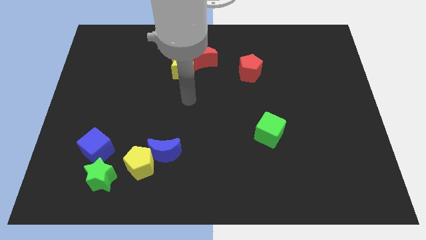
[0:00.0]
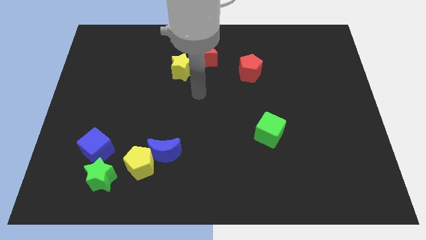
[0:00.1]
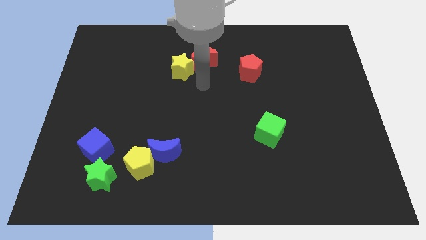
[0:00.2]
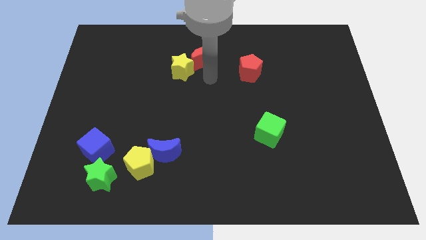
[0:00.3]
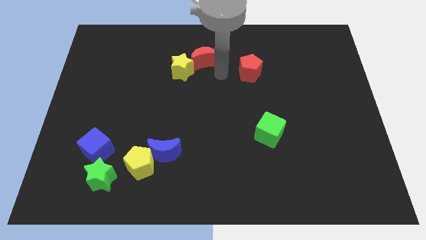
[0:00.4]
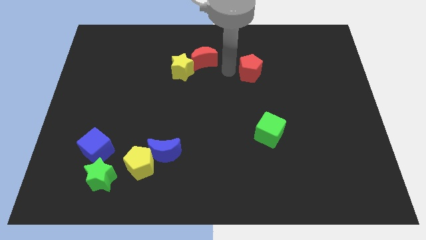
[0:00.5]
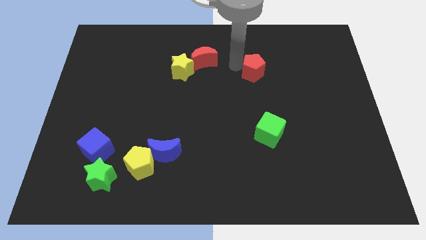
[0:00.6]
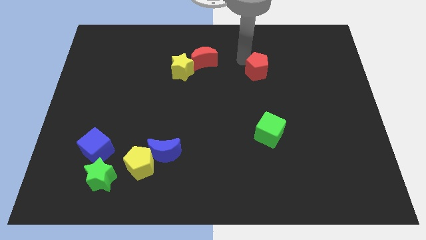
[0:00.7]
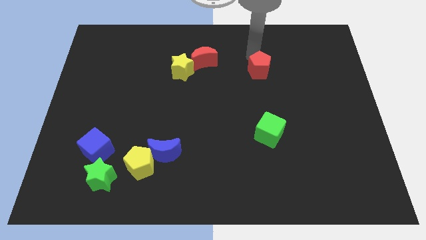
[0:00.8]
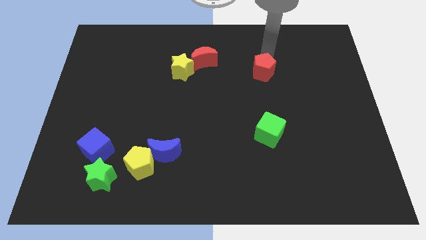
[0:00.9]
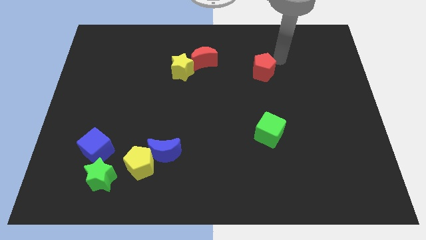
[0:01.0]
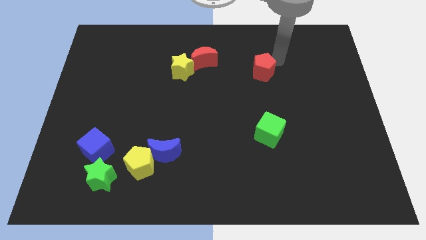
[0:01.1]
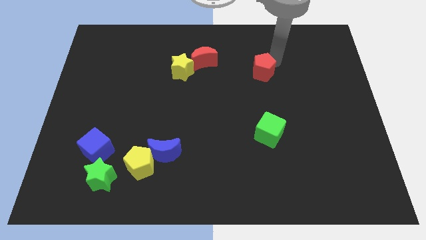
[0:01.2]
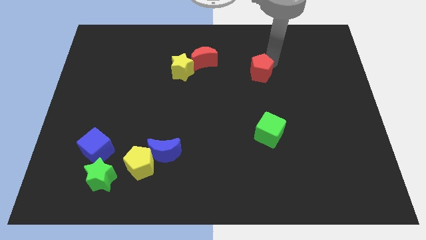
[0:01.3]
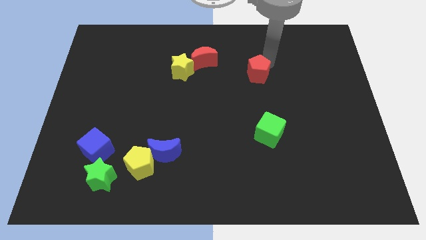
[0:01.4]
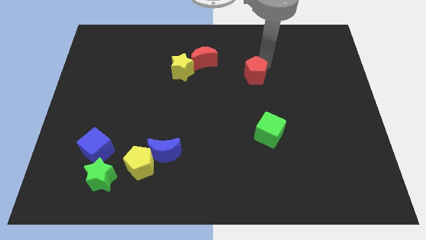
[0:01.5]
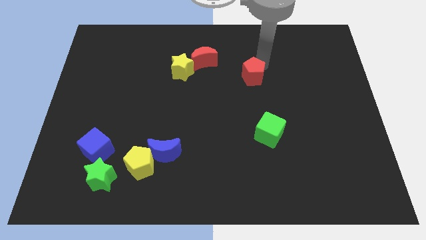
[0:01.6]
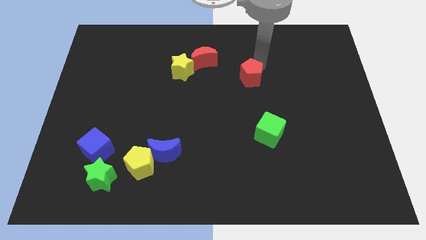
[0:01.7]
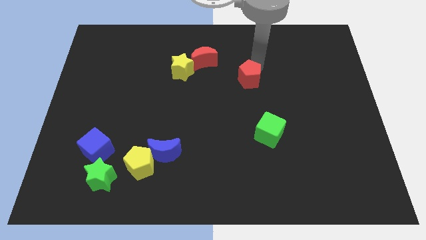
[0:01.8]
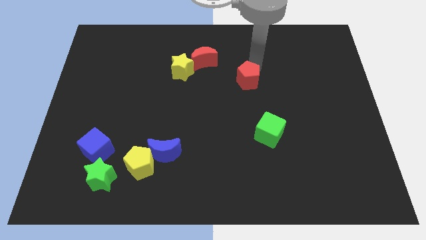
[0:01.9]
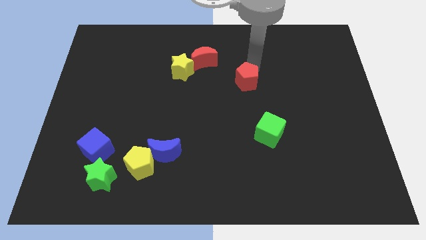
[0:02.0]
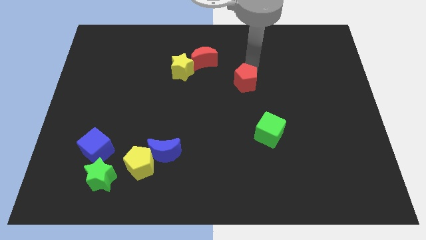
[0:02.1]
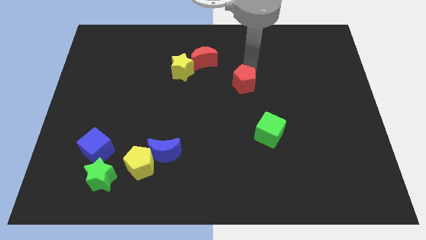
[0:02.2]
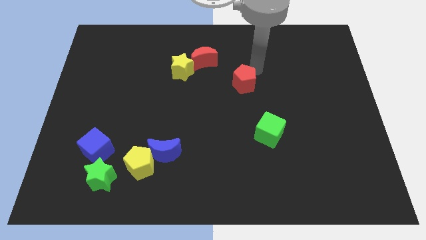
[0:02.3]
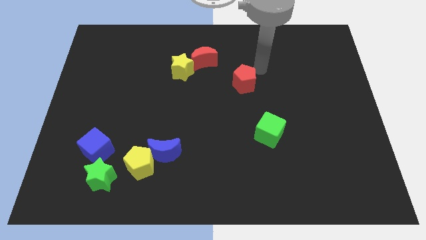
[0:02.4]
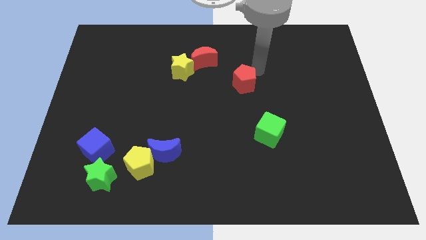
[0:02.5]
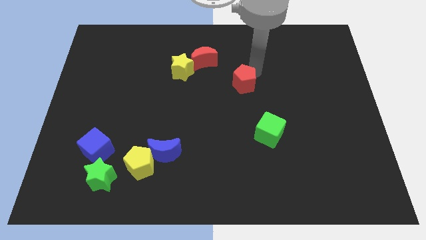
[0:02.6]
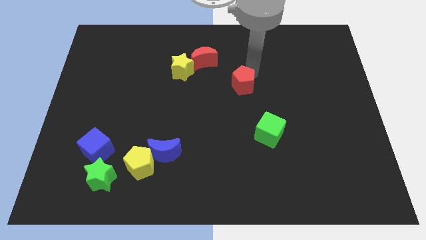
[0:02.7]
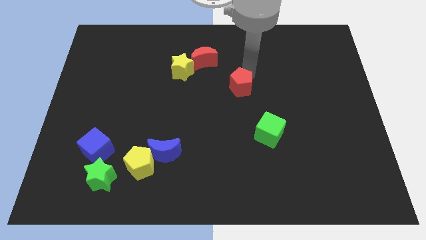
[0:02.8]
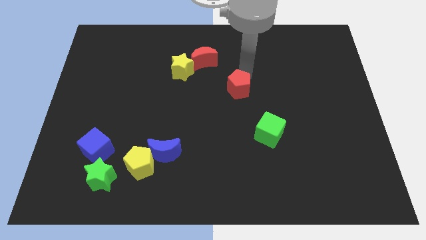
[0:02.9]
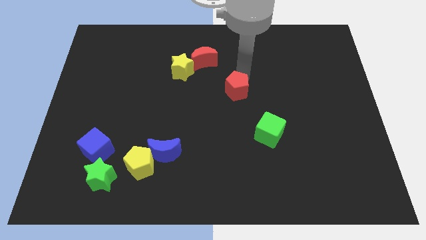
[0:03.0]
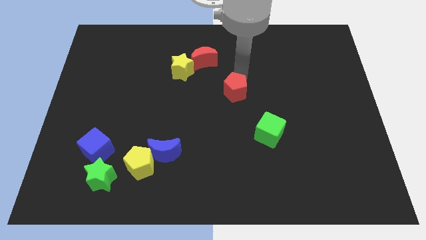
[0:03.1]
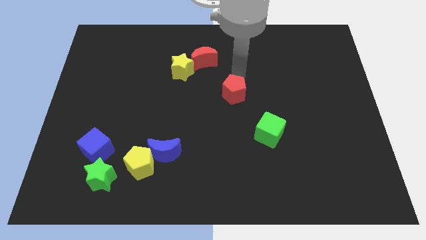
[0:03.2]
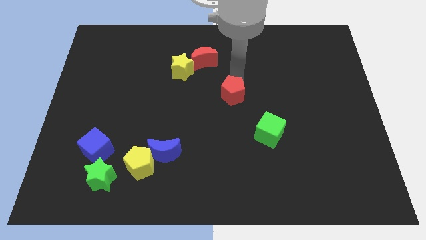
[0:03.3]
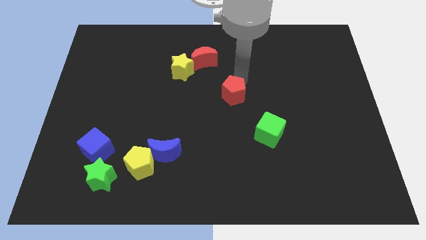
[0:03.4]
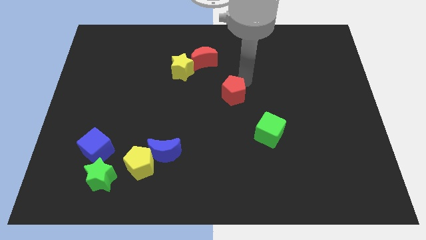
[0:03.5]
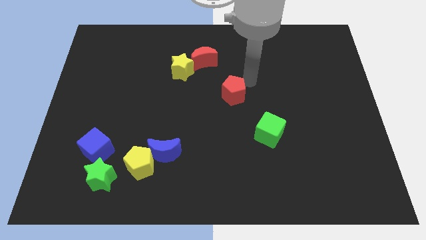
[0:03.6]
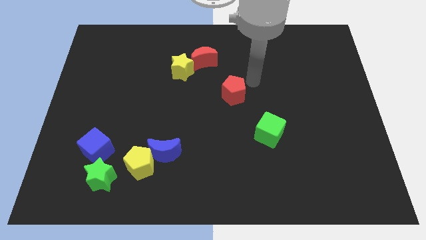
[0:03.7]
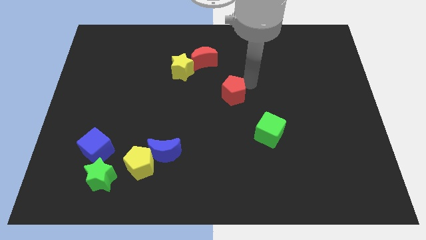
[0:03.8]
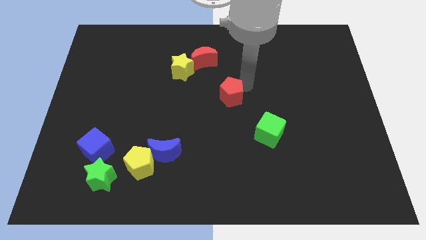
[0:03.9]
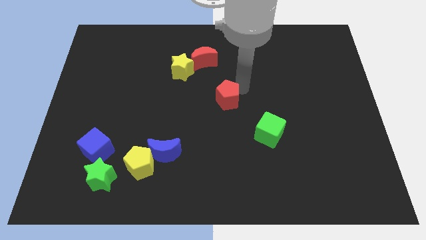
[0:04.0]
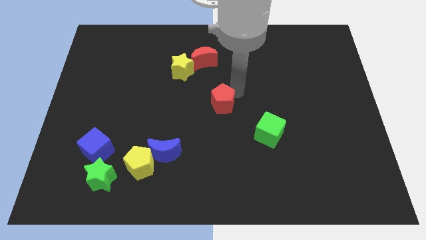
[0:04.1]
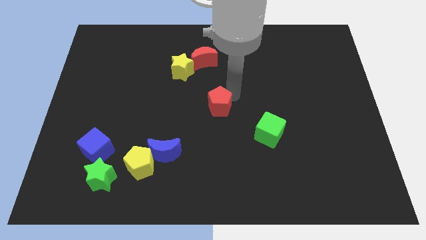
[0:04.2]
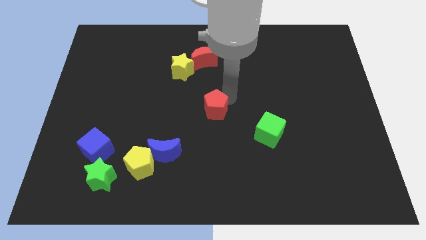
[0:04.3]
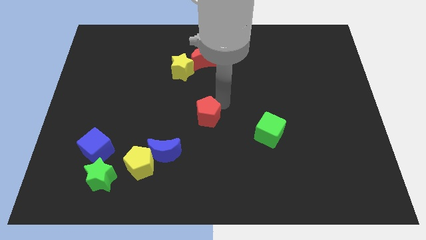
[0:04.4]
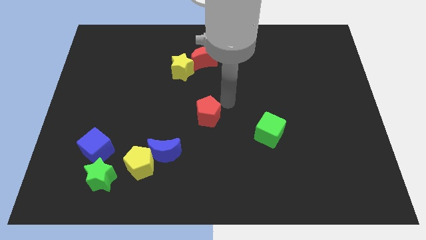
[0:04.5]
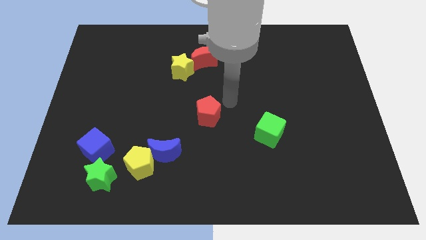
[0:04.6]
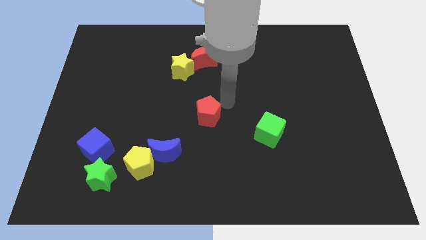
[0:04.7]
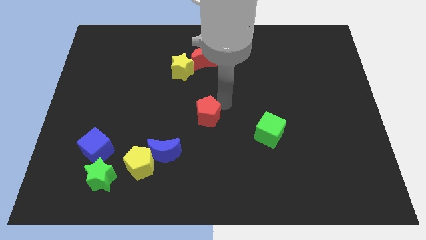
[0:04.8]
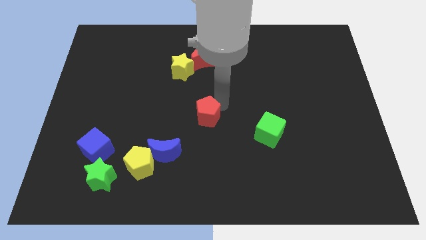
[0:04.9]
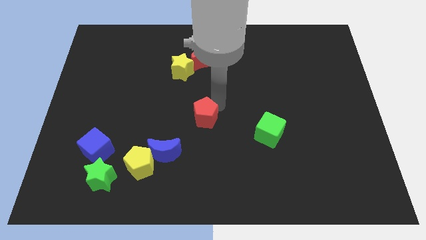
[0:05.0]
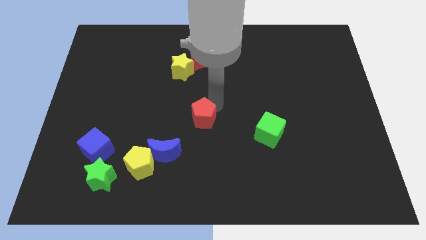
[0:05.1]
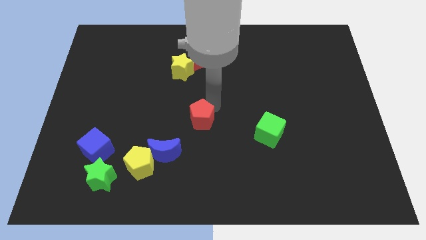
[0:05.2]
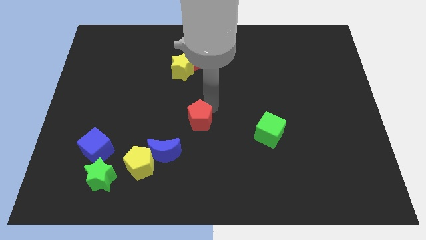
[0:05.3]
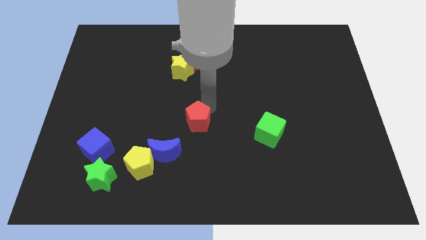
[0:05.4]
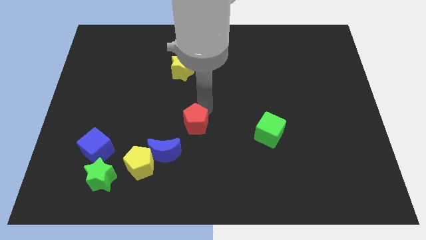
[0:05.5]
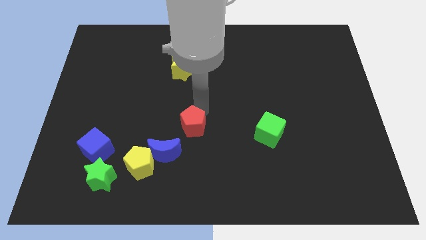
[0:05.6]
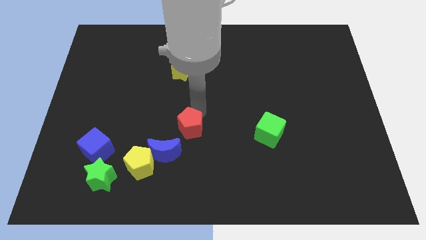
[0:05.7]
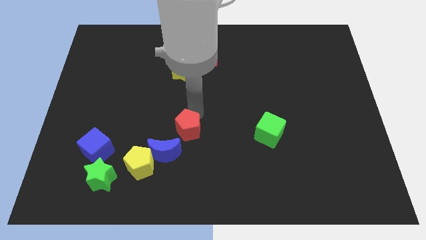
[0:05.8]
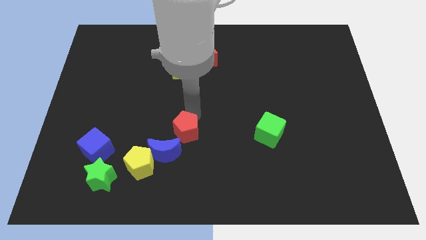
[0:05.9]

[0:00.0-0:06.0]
put the red pentagon to the top right side of the yellow pentagon
